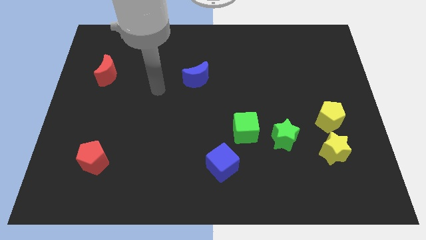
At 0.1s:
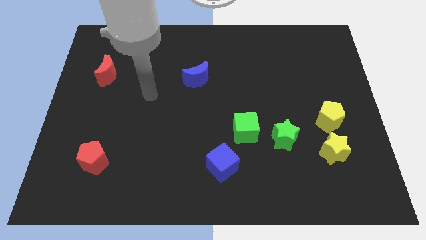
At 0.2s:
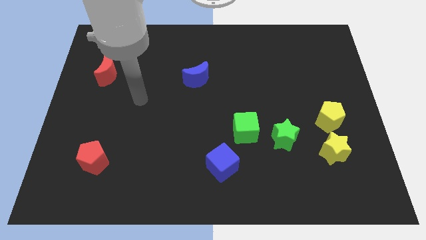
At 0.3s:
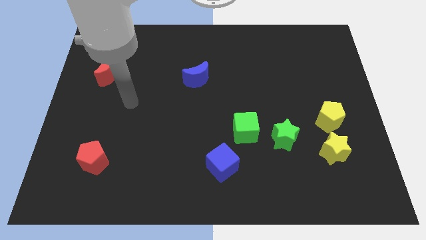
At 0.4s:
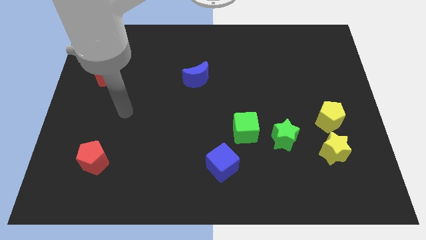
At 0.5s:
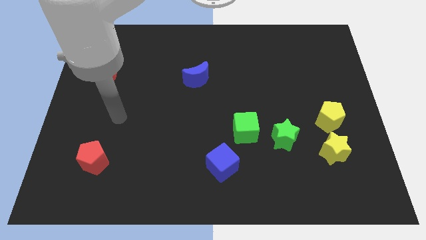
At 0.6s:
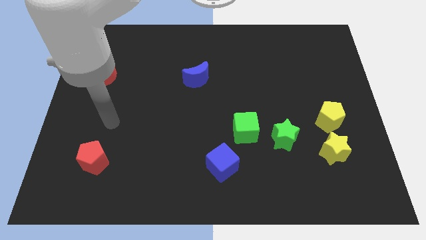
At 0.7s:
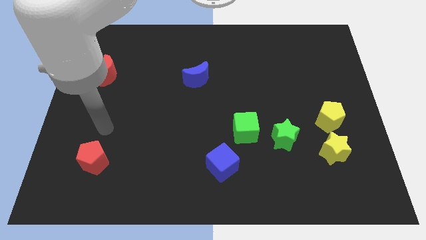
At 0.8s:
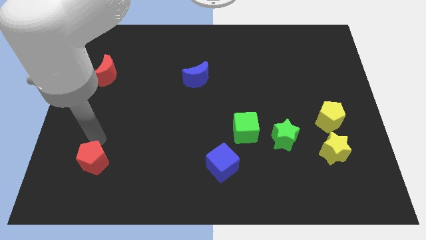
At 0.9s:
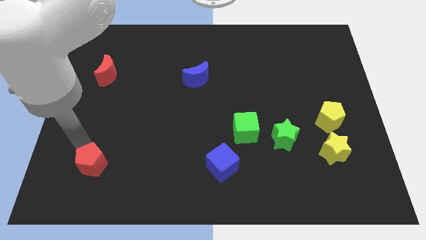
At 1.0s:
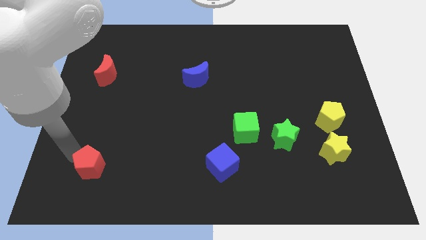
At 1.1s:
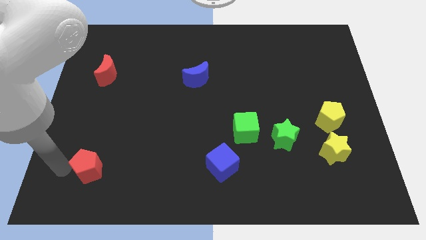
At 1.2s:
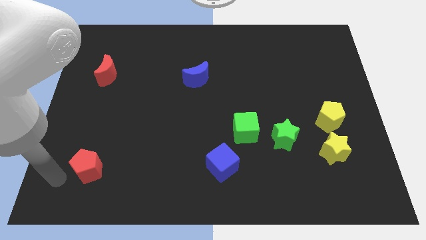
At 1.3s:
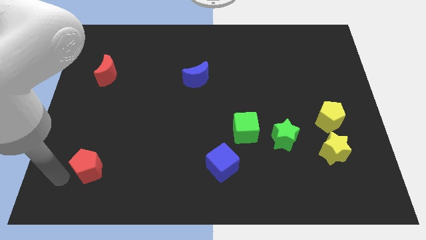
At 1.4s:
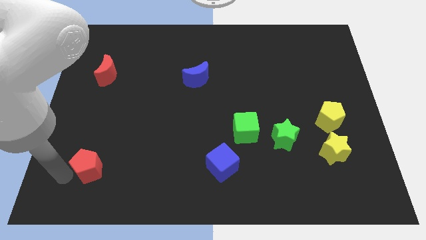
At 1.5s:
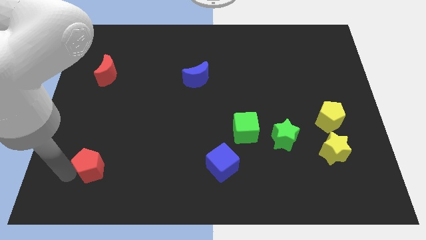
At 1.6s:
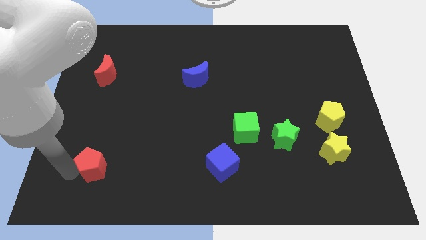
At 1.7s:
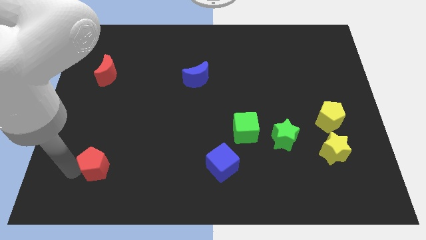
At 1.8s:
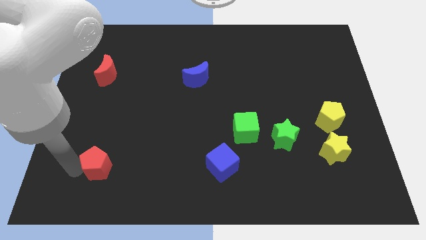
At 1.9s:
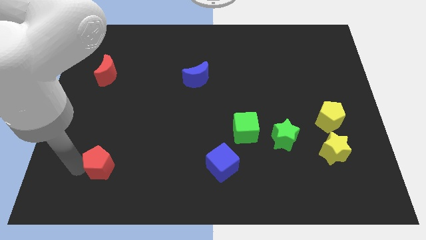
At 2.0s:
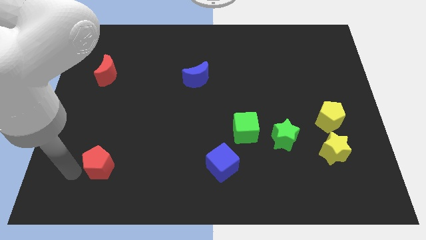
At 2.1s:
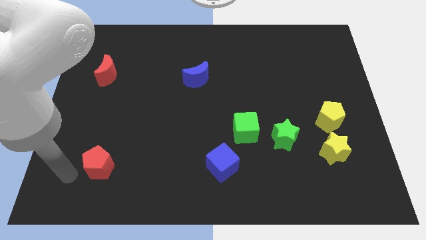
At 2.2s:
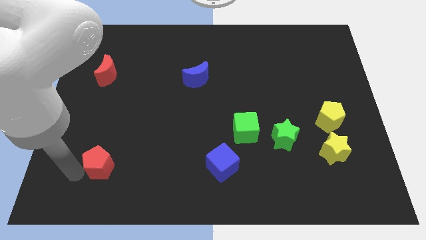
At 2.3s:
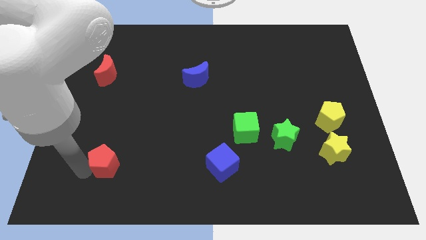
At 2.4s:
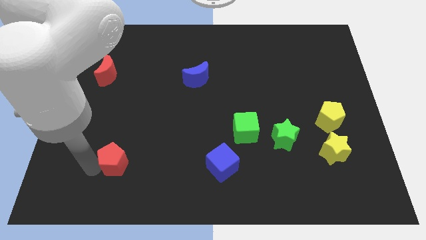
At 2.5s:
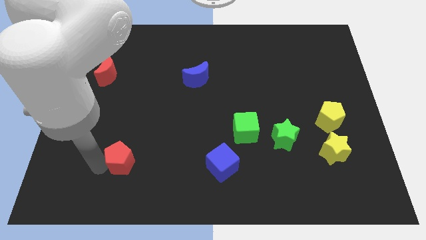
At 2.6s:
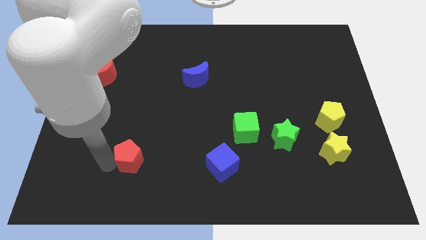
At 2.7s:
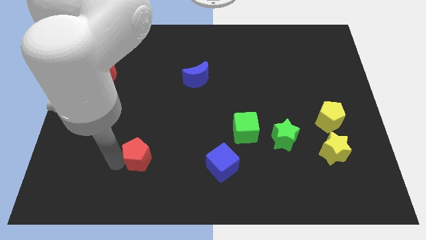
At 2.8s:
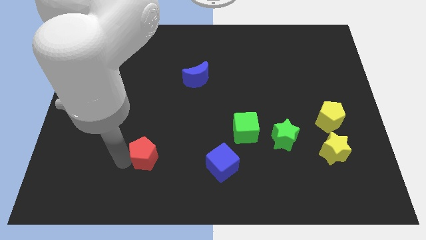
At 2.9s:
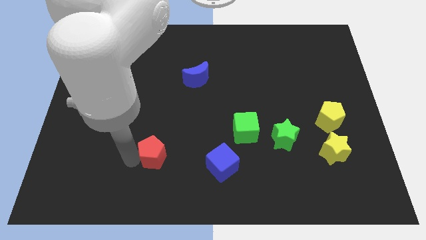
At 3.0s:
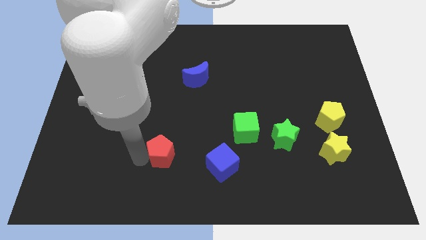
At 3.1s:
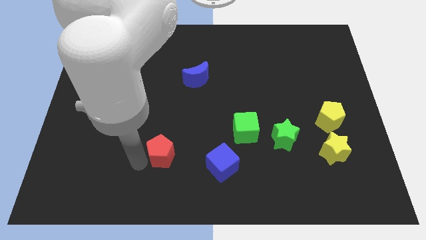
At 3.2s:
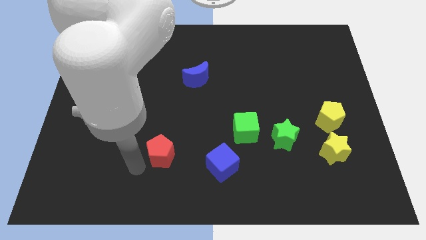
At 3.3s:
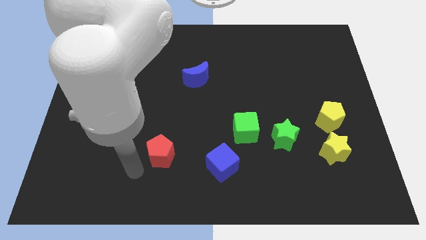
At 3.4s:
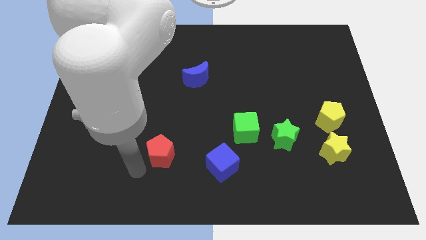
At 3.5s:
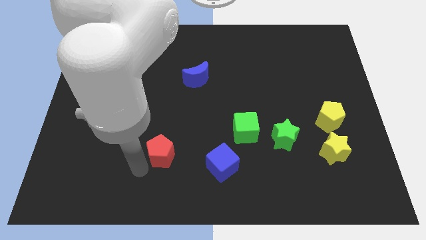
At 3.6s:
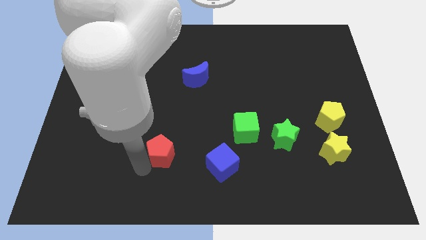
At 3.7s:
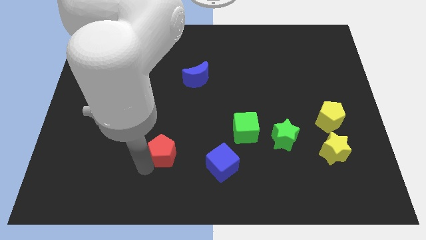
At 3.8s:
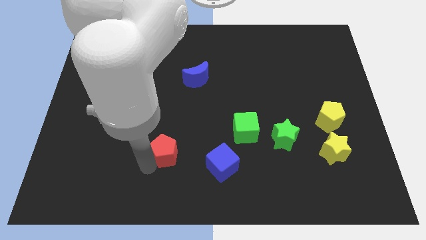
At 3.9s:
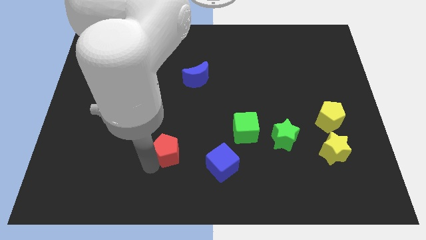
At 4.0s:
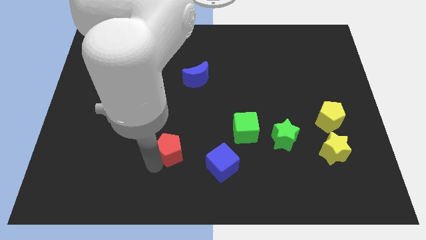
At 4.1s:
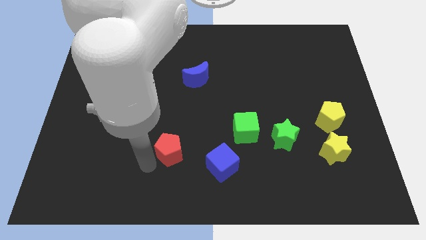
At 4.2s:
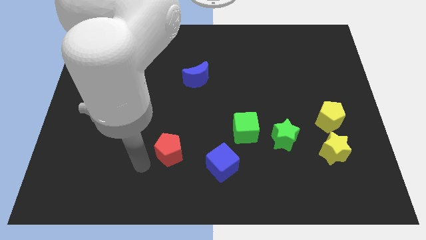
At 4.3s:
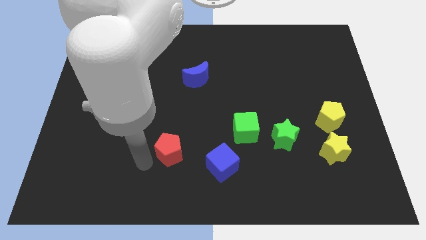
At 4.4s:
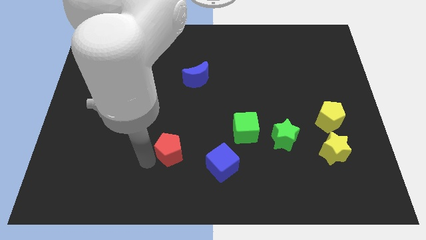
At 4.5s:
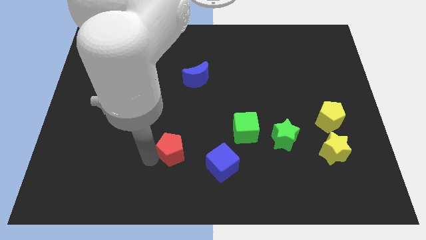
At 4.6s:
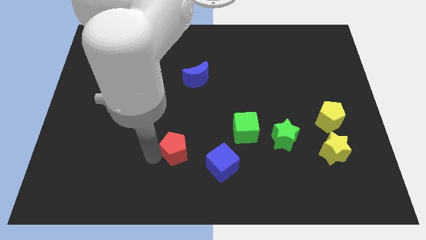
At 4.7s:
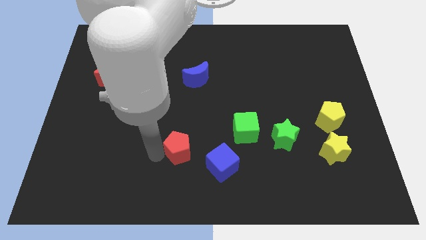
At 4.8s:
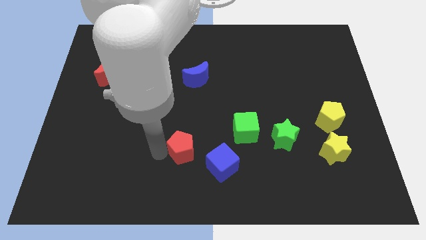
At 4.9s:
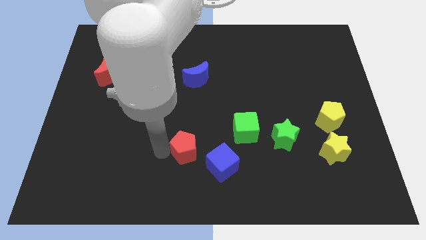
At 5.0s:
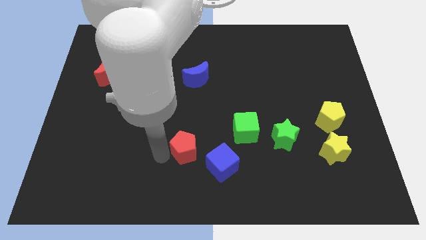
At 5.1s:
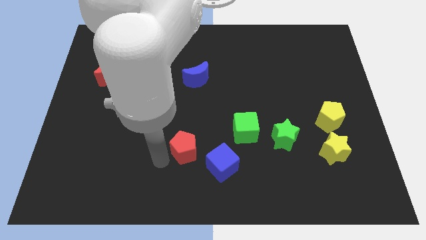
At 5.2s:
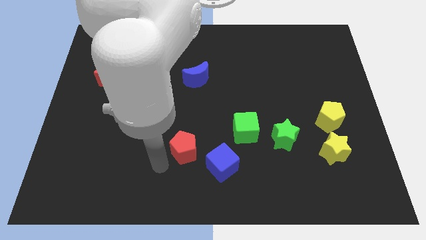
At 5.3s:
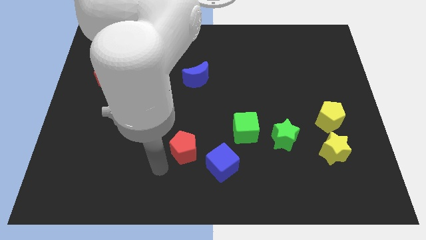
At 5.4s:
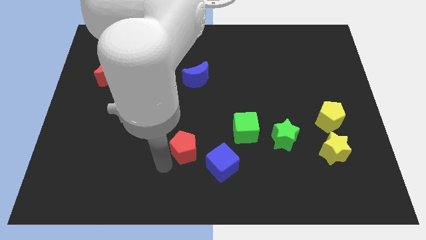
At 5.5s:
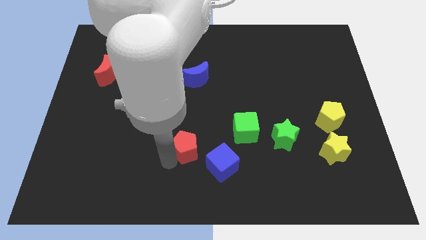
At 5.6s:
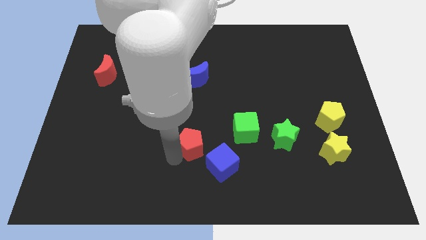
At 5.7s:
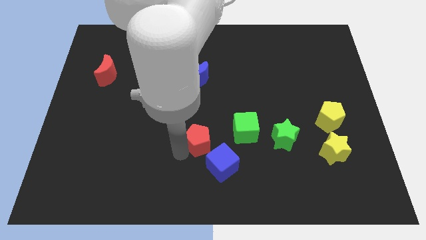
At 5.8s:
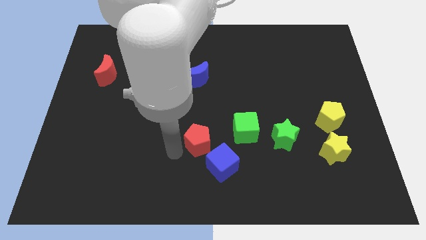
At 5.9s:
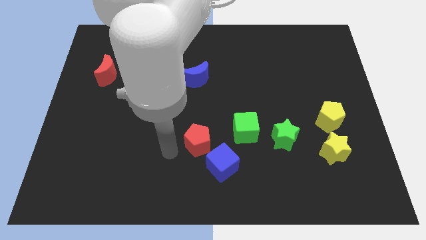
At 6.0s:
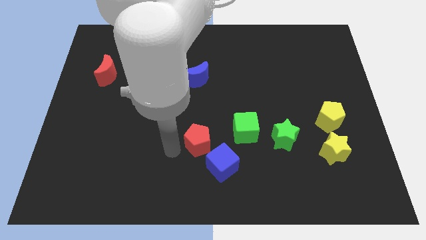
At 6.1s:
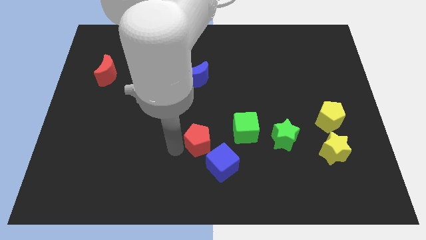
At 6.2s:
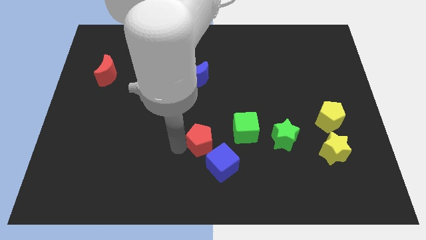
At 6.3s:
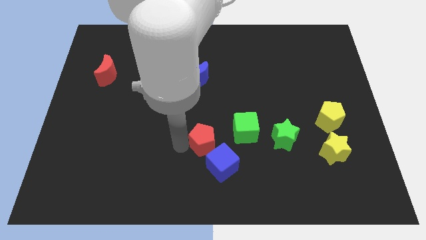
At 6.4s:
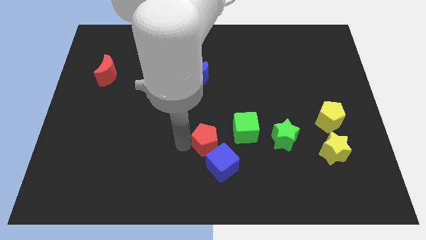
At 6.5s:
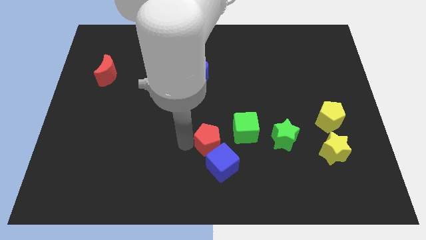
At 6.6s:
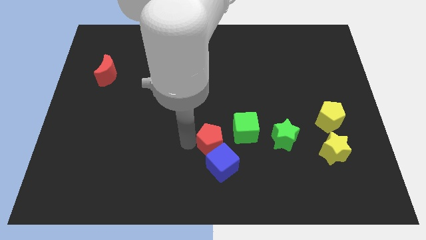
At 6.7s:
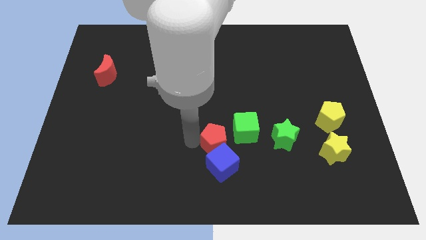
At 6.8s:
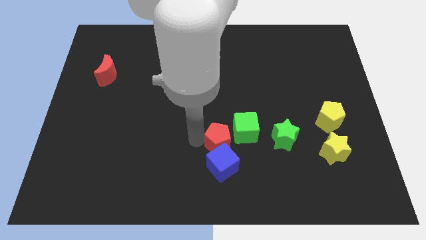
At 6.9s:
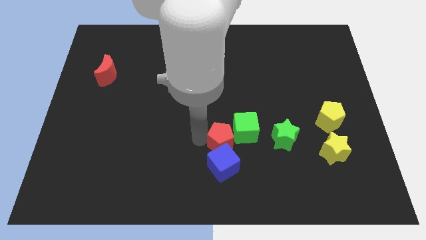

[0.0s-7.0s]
slide the red pentagon to the green cube

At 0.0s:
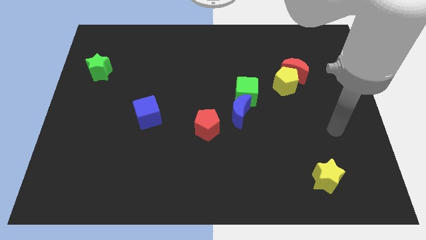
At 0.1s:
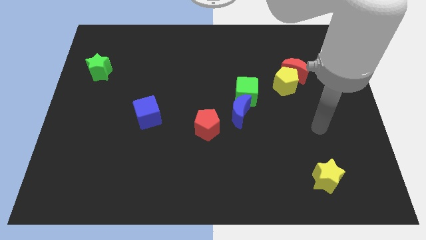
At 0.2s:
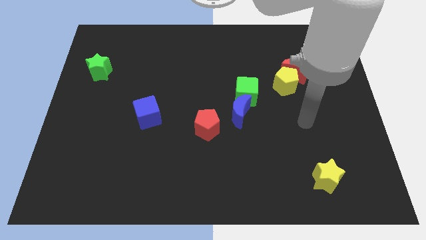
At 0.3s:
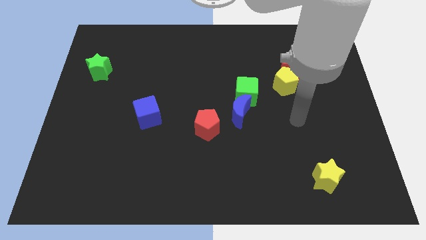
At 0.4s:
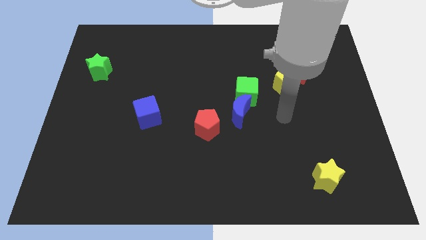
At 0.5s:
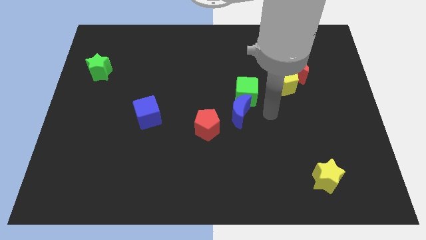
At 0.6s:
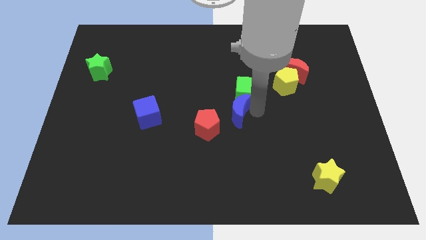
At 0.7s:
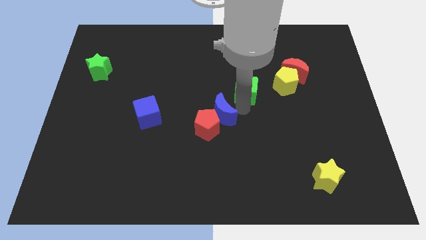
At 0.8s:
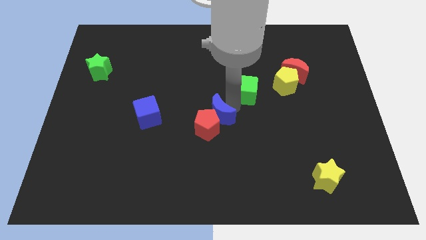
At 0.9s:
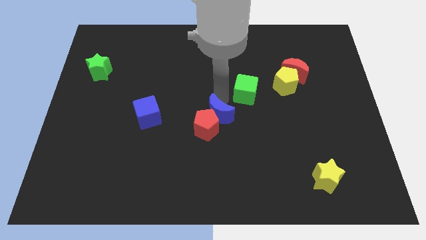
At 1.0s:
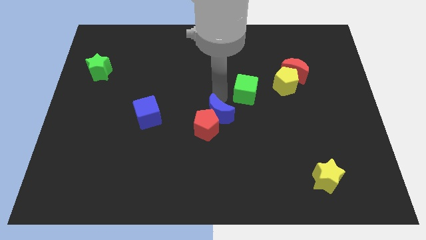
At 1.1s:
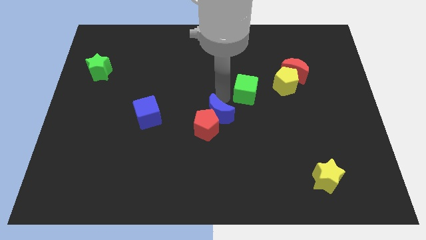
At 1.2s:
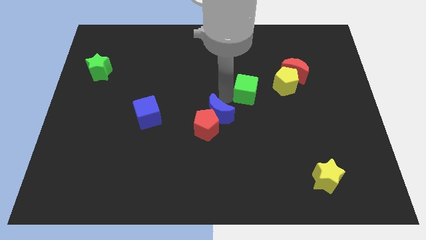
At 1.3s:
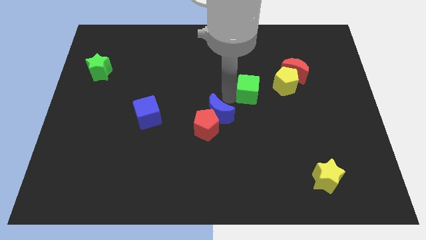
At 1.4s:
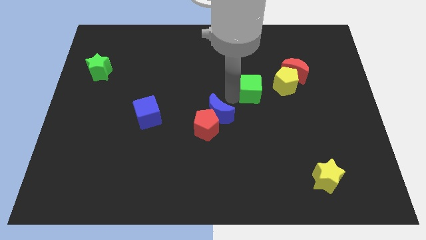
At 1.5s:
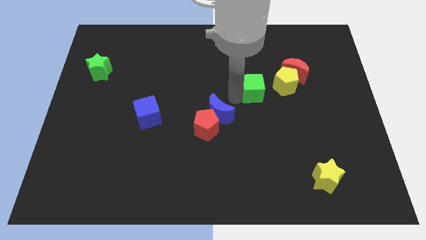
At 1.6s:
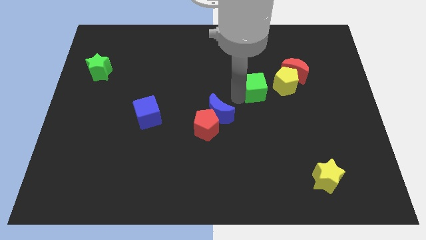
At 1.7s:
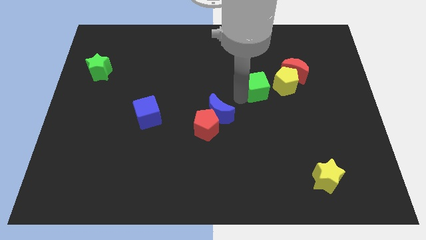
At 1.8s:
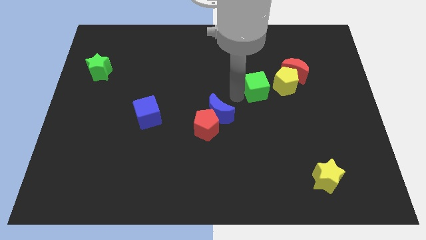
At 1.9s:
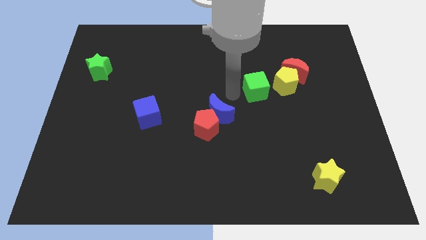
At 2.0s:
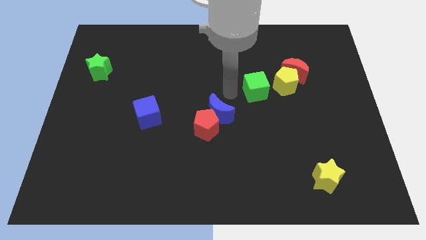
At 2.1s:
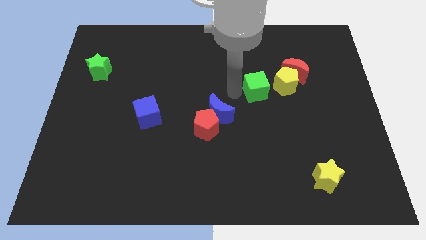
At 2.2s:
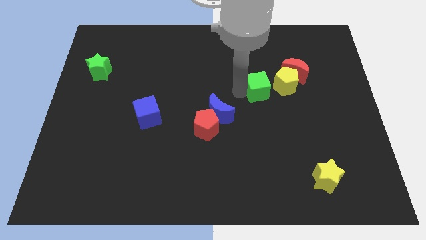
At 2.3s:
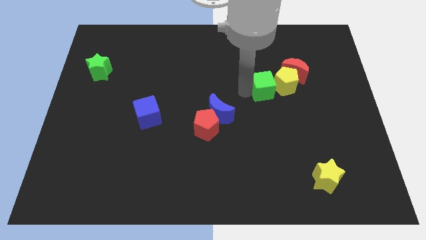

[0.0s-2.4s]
slide the green cube close to the yellow pentagon
